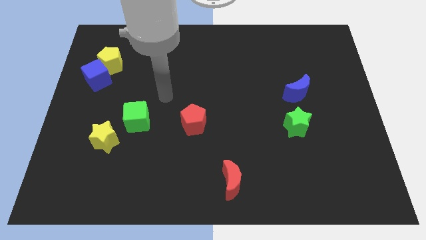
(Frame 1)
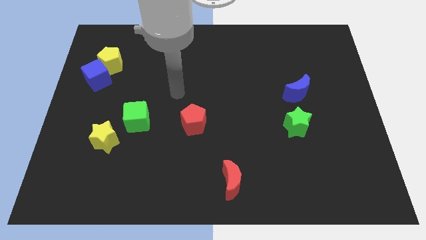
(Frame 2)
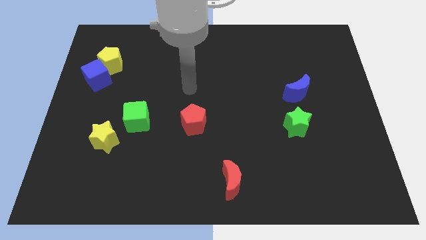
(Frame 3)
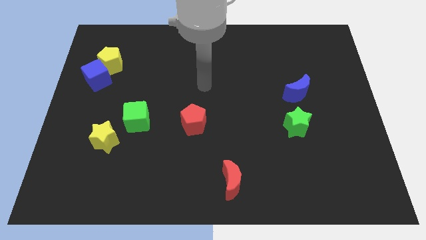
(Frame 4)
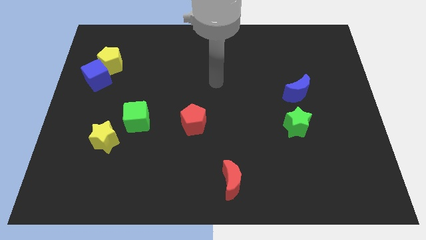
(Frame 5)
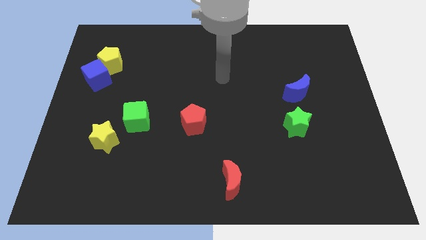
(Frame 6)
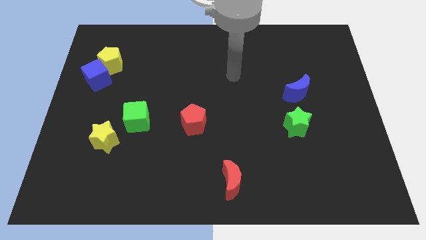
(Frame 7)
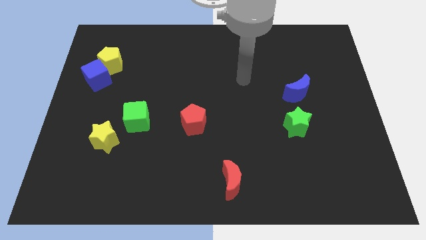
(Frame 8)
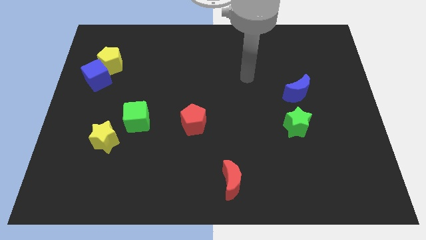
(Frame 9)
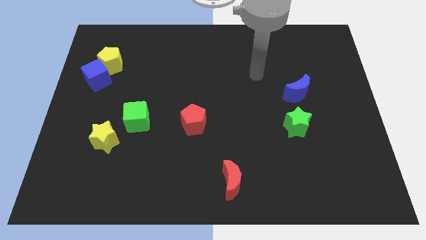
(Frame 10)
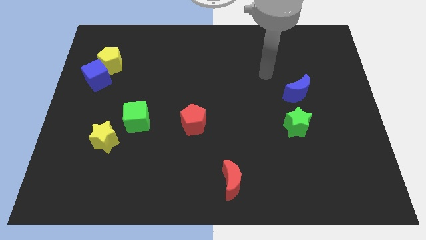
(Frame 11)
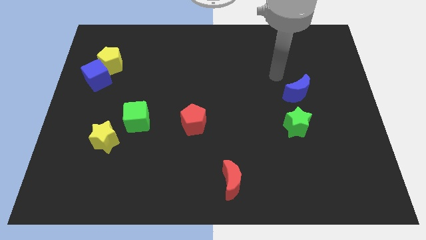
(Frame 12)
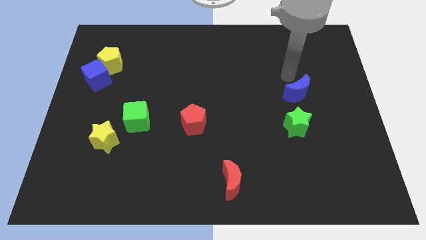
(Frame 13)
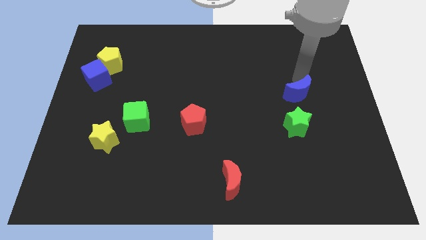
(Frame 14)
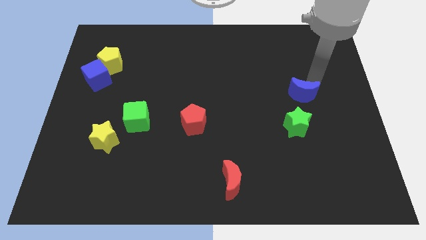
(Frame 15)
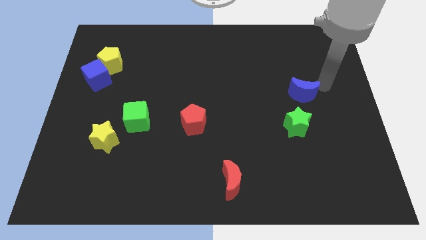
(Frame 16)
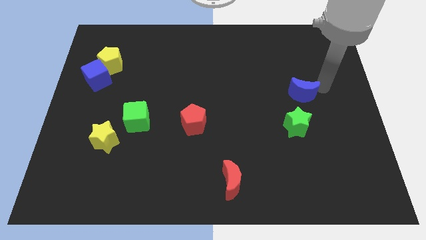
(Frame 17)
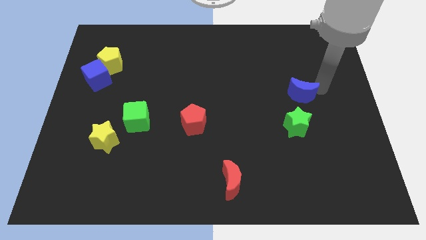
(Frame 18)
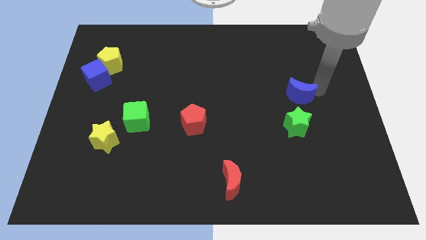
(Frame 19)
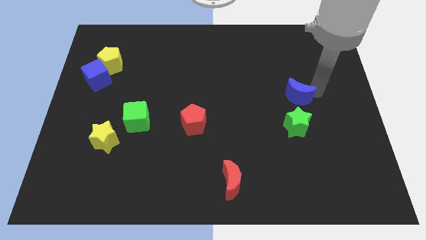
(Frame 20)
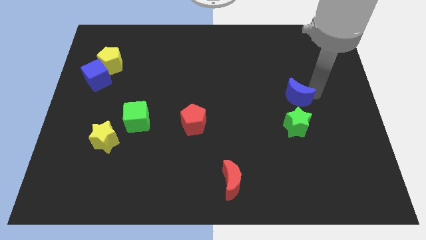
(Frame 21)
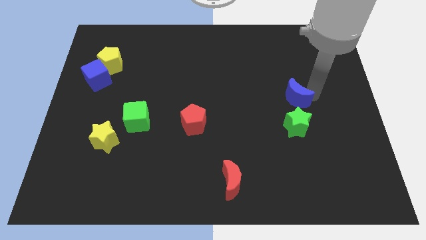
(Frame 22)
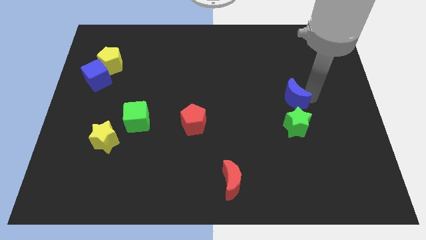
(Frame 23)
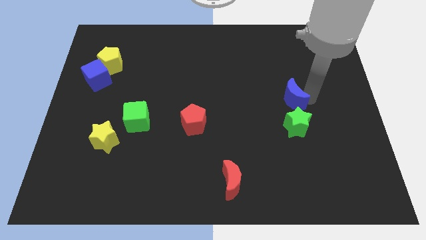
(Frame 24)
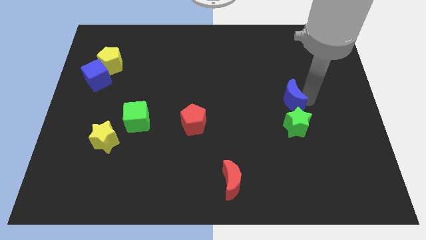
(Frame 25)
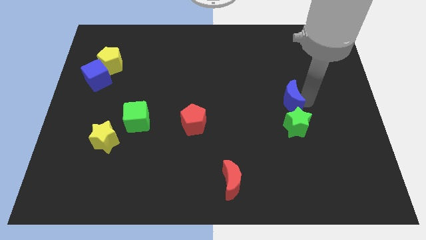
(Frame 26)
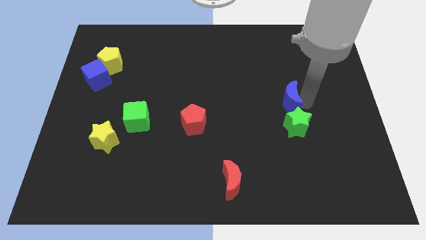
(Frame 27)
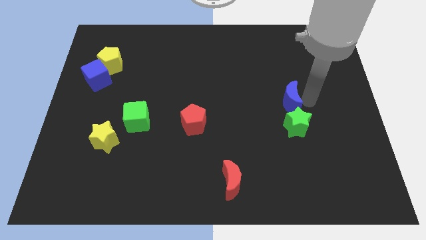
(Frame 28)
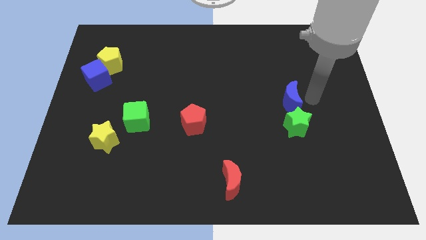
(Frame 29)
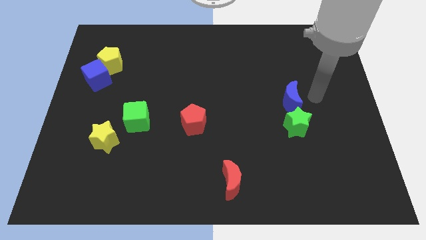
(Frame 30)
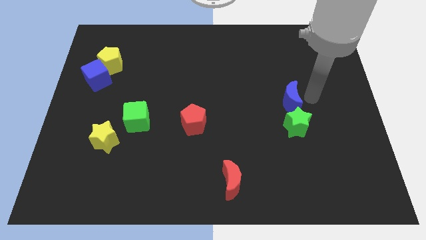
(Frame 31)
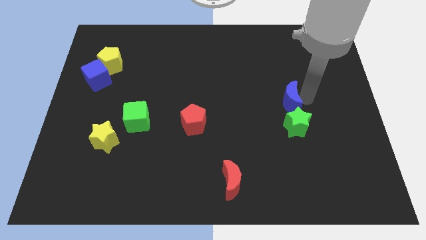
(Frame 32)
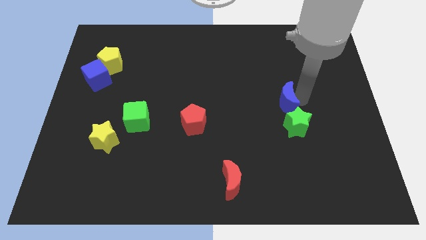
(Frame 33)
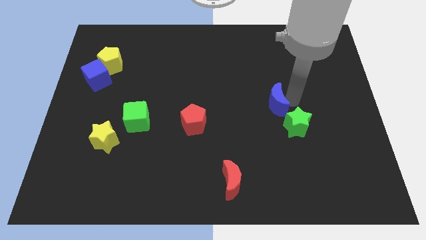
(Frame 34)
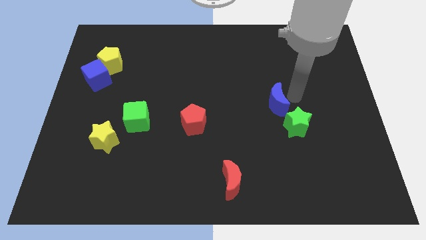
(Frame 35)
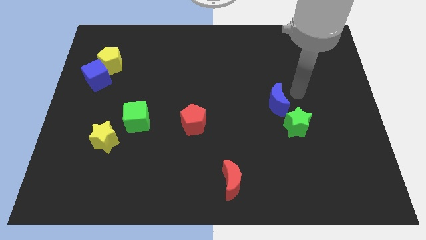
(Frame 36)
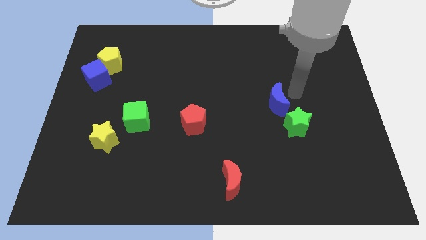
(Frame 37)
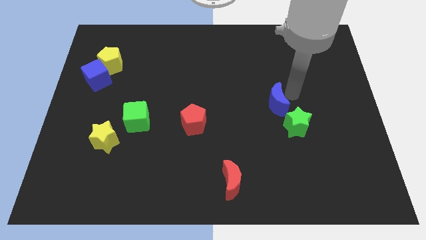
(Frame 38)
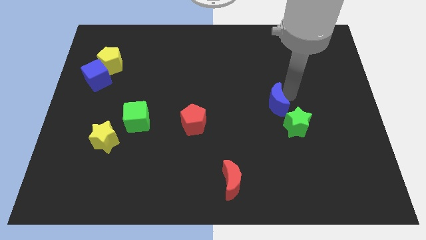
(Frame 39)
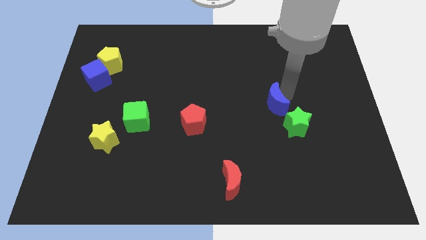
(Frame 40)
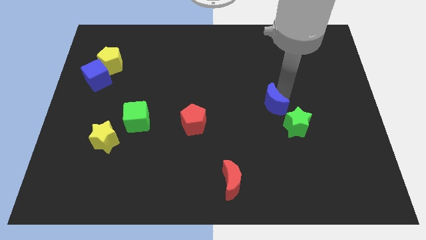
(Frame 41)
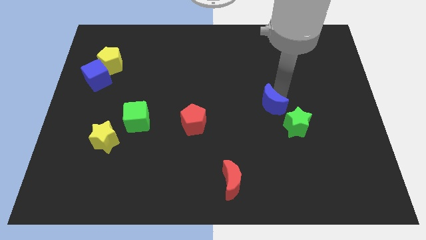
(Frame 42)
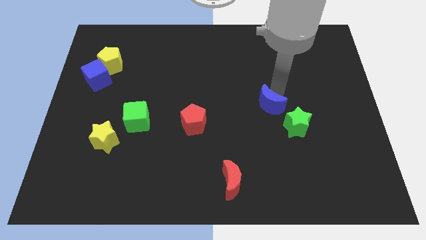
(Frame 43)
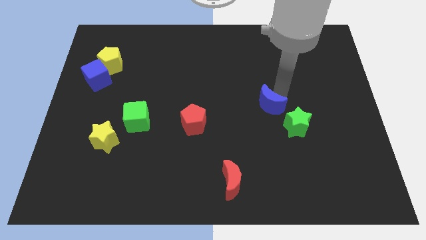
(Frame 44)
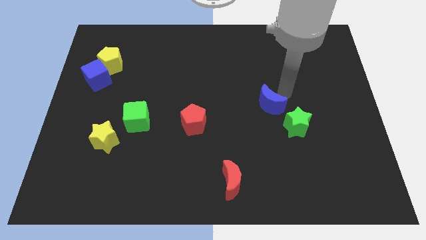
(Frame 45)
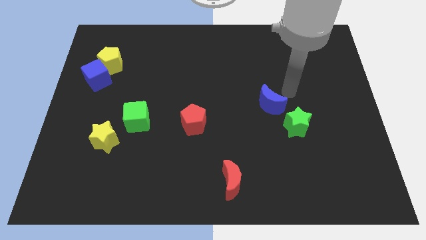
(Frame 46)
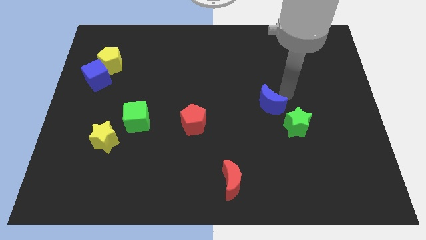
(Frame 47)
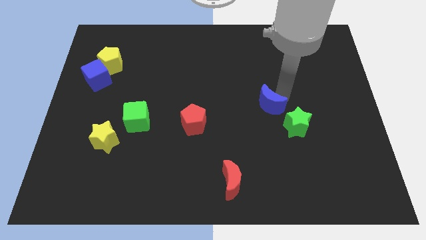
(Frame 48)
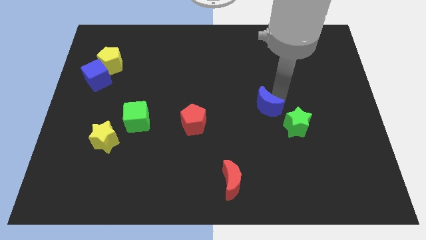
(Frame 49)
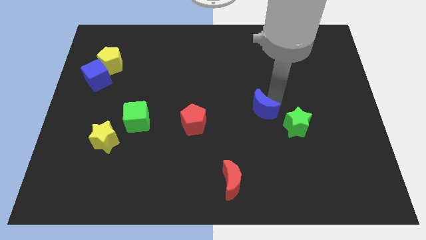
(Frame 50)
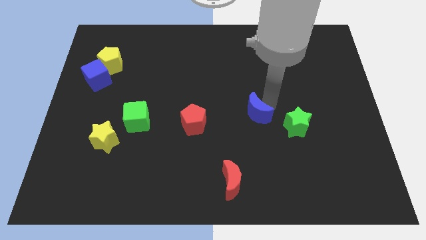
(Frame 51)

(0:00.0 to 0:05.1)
push the blue moon just right of the red pentagon

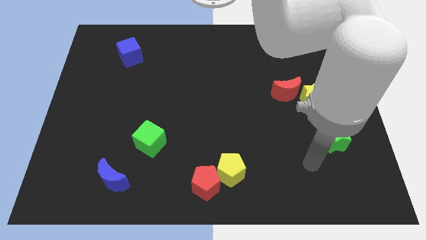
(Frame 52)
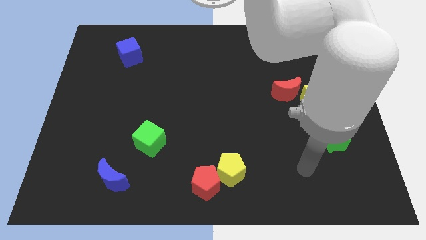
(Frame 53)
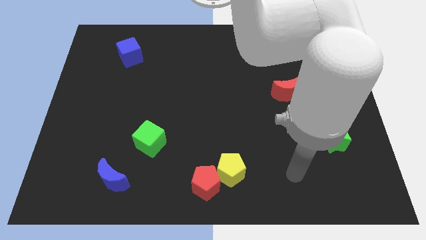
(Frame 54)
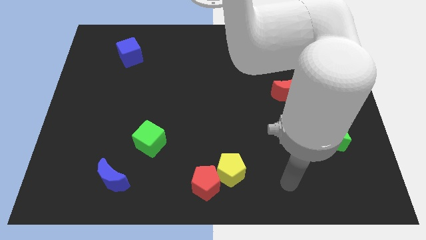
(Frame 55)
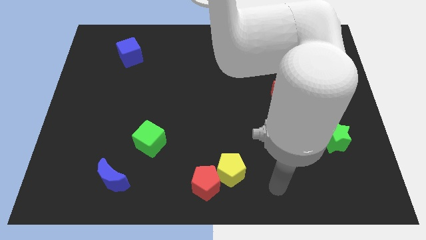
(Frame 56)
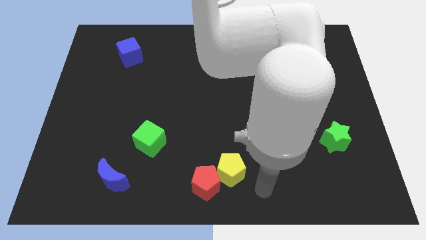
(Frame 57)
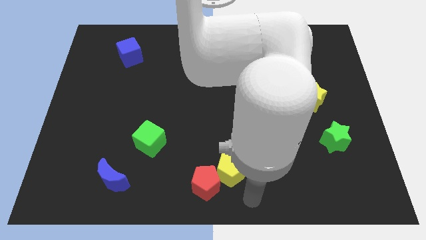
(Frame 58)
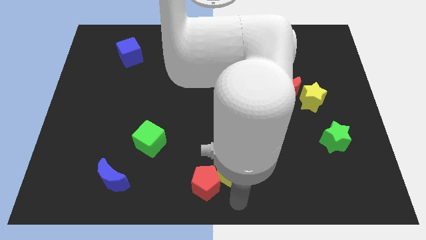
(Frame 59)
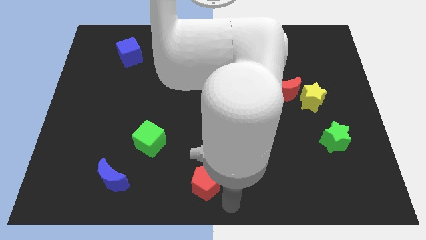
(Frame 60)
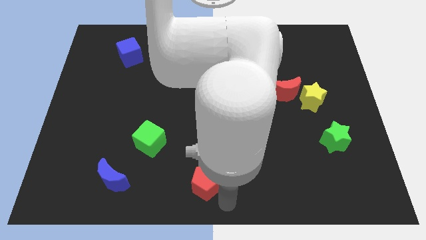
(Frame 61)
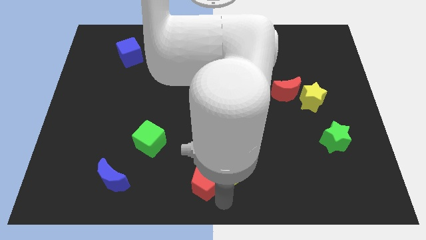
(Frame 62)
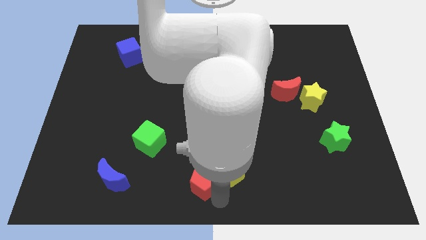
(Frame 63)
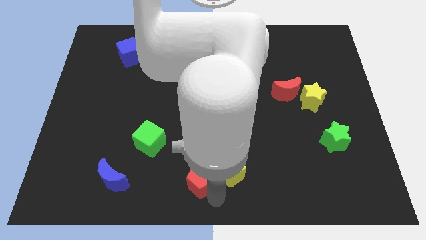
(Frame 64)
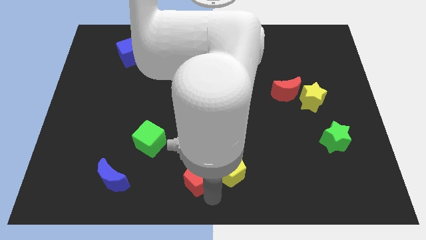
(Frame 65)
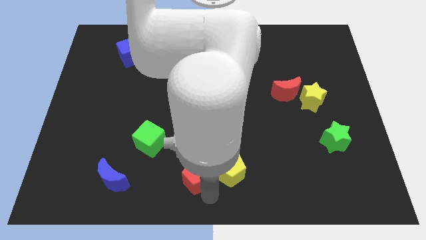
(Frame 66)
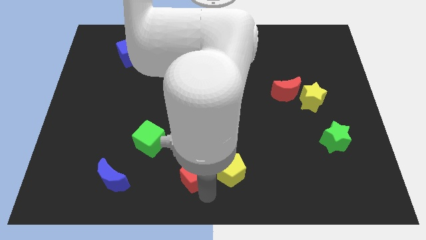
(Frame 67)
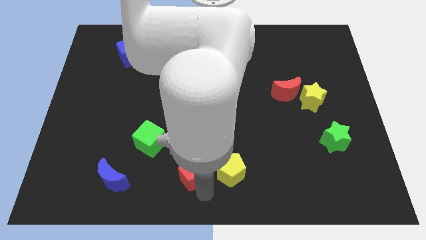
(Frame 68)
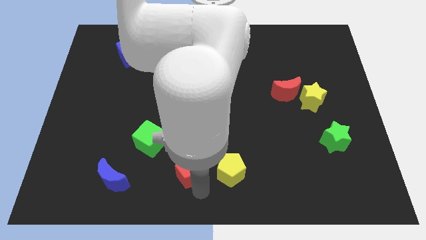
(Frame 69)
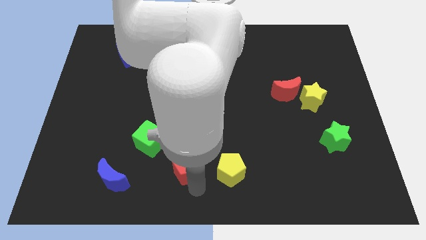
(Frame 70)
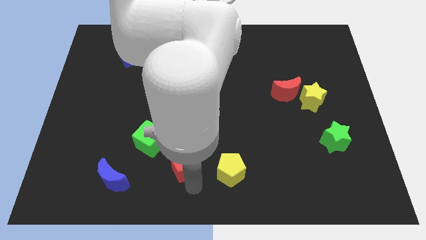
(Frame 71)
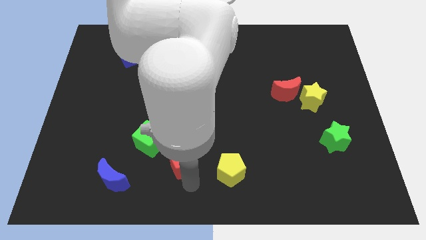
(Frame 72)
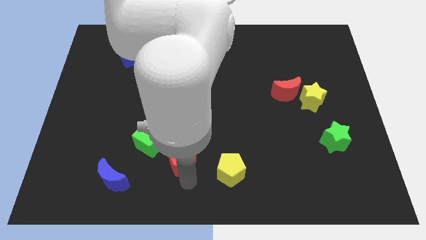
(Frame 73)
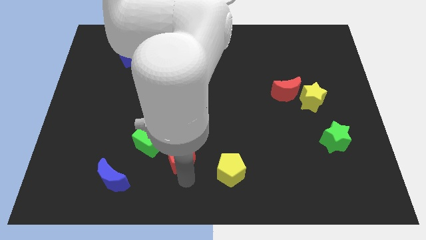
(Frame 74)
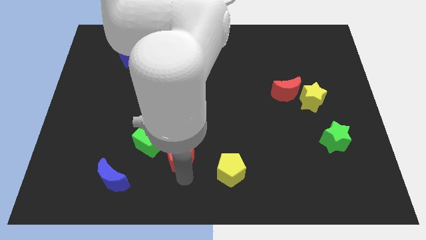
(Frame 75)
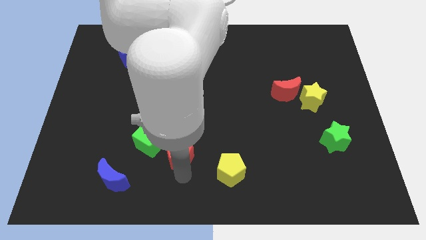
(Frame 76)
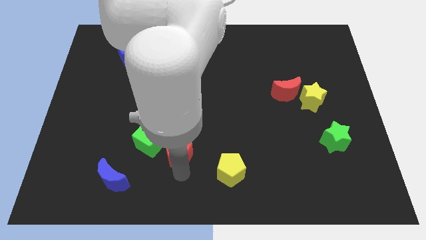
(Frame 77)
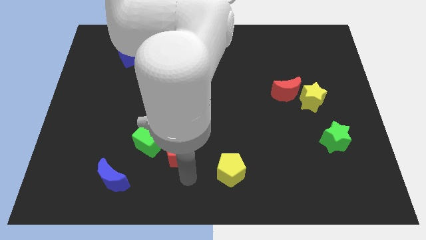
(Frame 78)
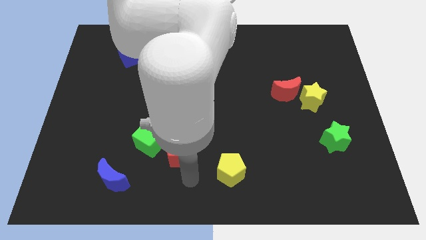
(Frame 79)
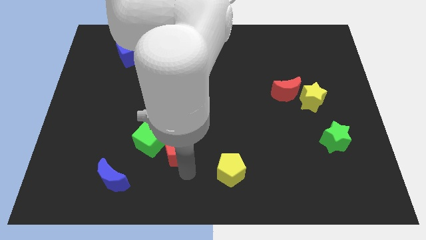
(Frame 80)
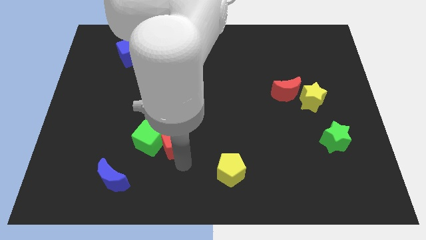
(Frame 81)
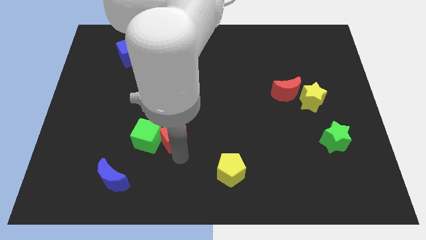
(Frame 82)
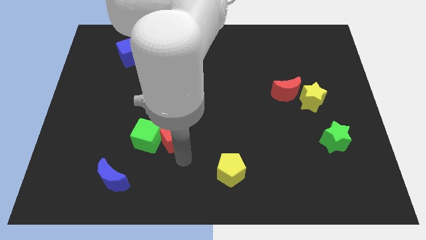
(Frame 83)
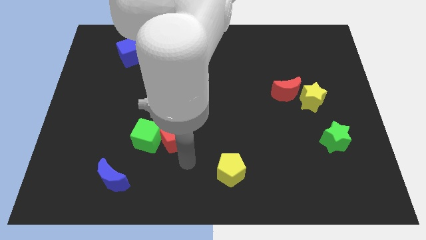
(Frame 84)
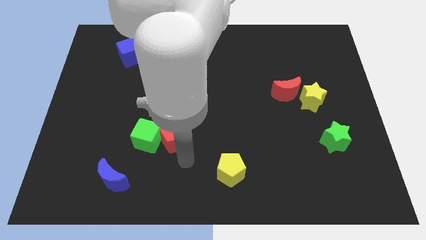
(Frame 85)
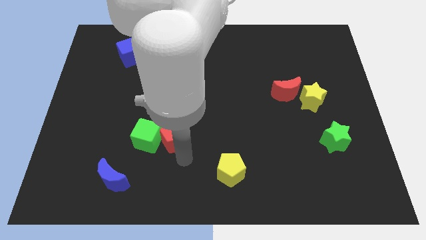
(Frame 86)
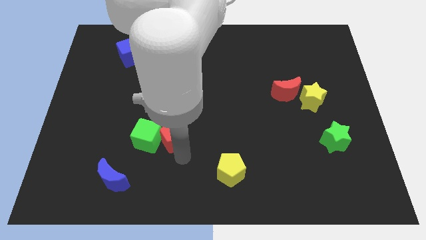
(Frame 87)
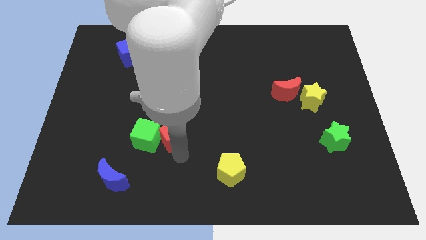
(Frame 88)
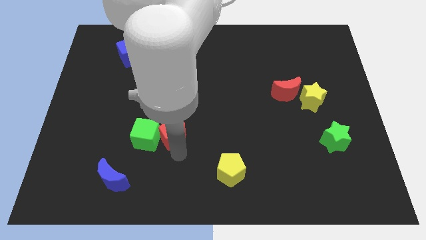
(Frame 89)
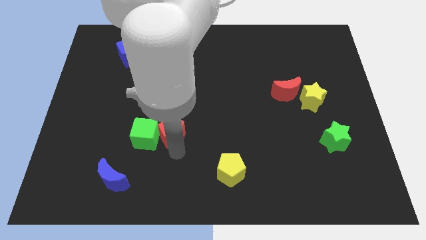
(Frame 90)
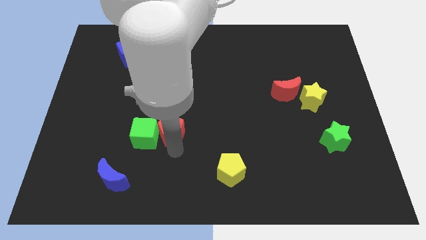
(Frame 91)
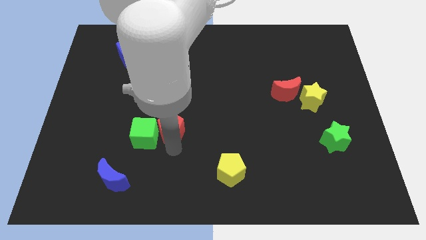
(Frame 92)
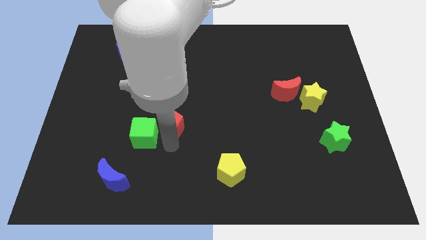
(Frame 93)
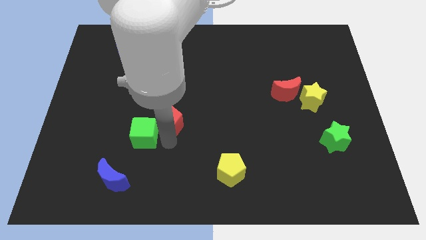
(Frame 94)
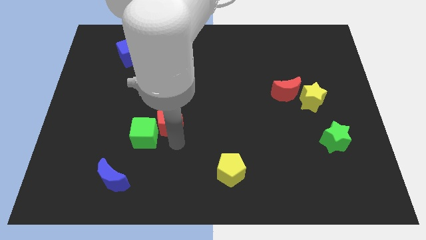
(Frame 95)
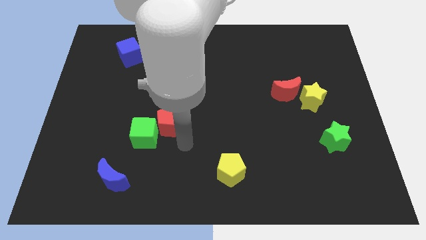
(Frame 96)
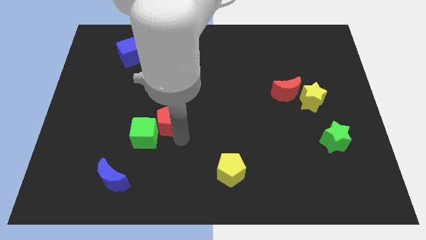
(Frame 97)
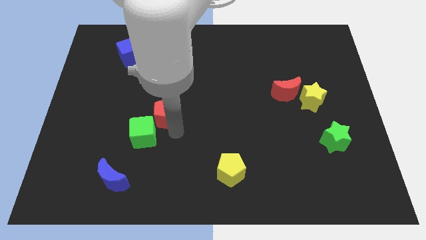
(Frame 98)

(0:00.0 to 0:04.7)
slide the red pentagon above the green cube
